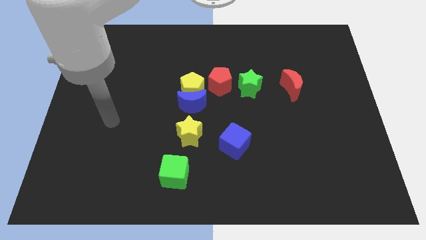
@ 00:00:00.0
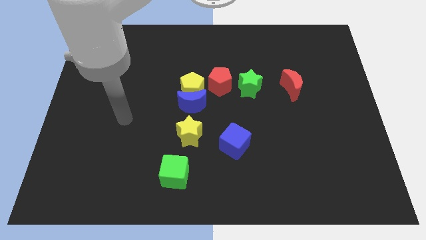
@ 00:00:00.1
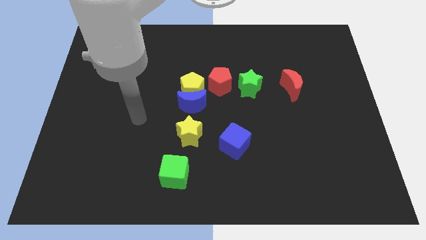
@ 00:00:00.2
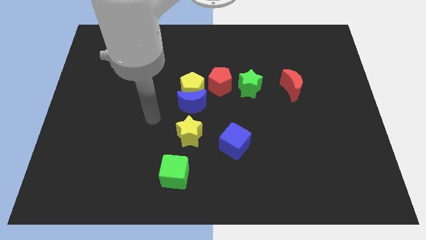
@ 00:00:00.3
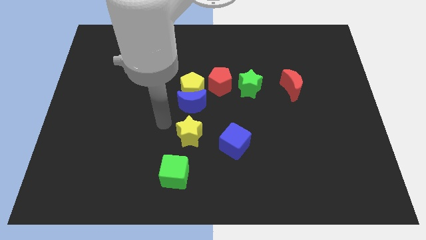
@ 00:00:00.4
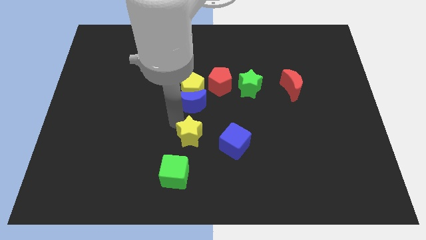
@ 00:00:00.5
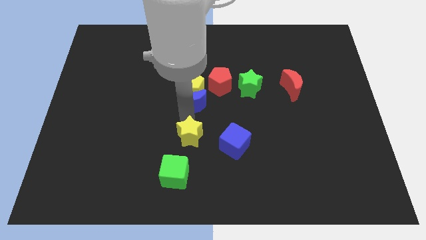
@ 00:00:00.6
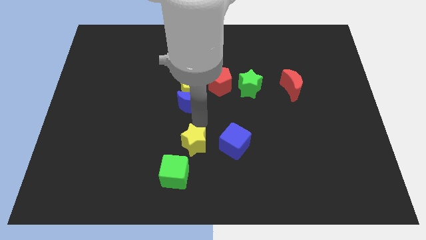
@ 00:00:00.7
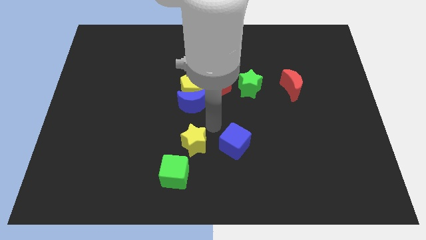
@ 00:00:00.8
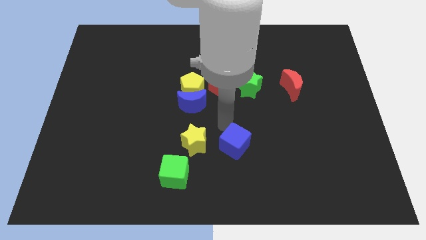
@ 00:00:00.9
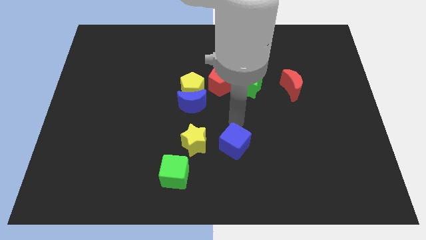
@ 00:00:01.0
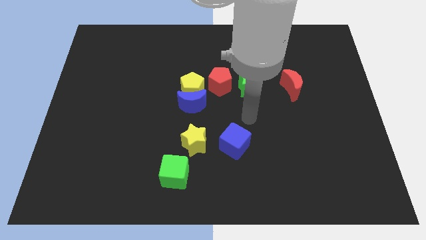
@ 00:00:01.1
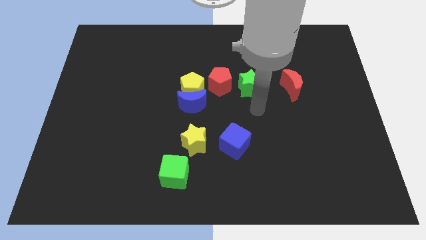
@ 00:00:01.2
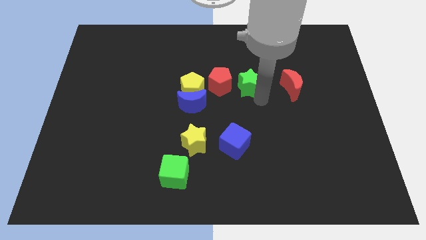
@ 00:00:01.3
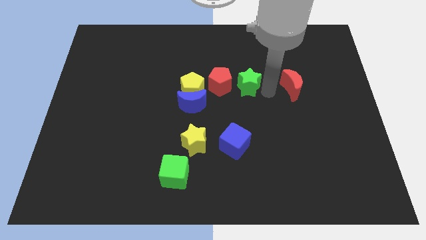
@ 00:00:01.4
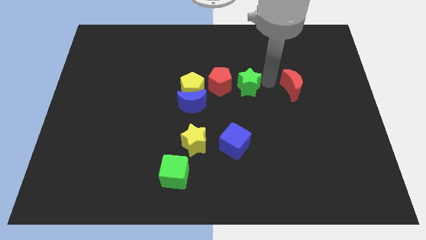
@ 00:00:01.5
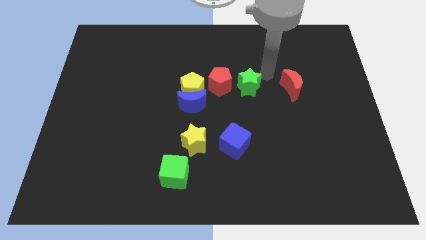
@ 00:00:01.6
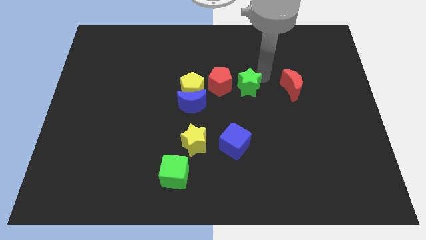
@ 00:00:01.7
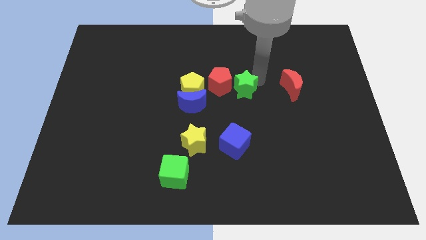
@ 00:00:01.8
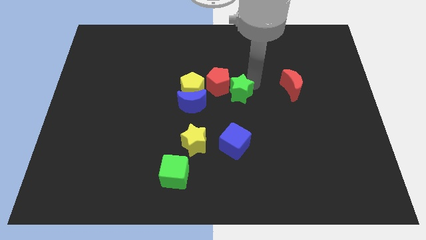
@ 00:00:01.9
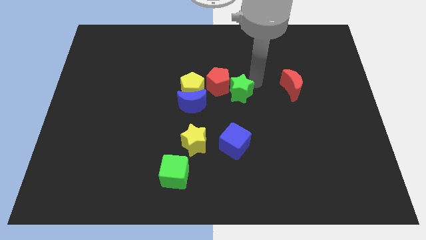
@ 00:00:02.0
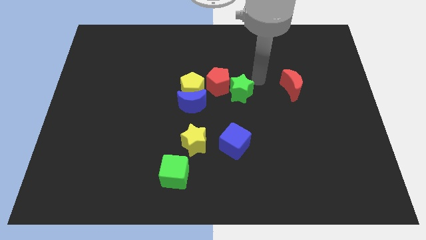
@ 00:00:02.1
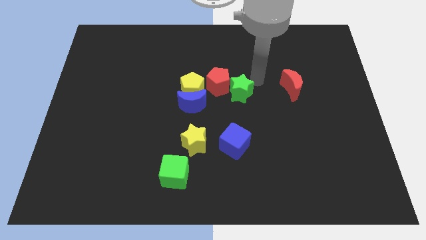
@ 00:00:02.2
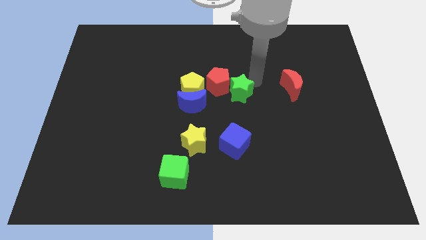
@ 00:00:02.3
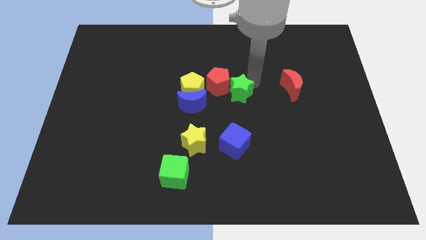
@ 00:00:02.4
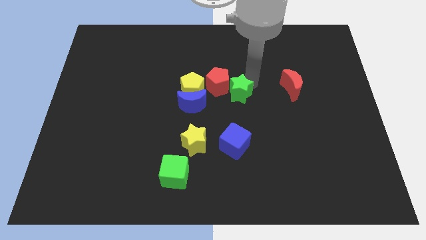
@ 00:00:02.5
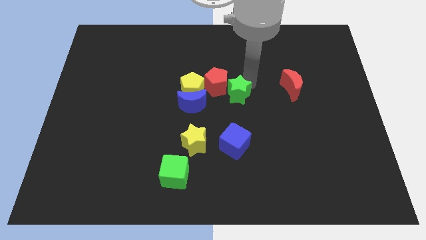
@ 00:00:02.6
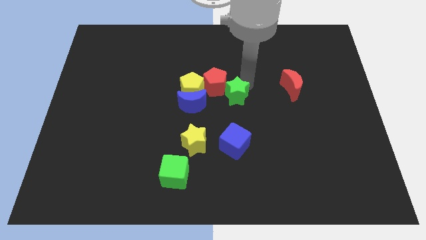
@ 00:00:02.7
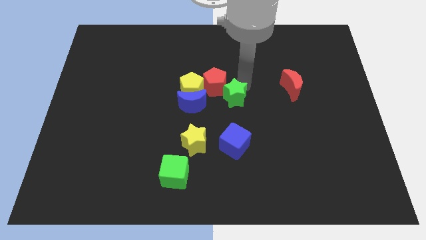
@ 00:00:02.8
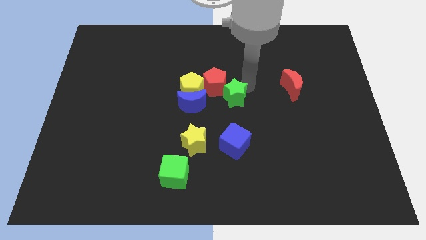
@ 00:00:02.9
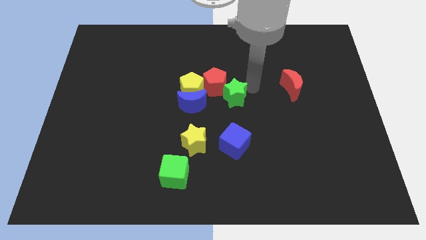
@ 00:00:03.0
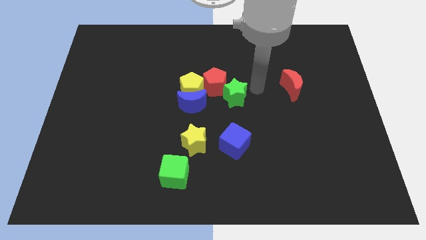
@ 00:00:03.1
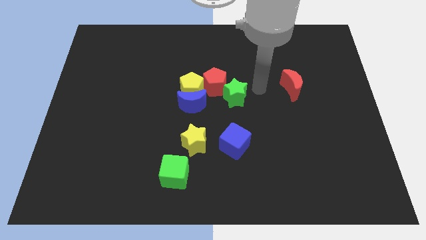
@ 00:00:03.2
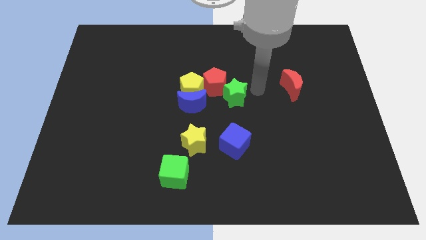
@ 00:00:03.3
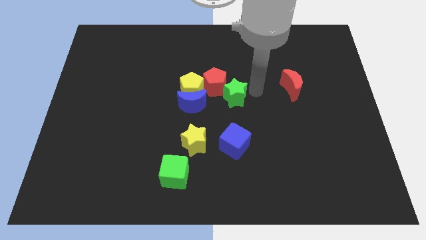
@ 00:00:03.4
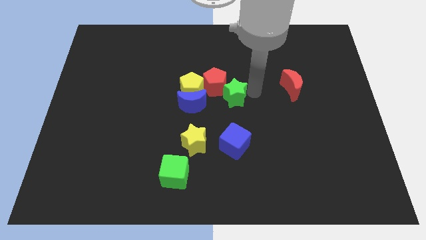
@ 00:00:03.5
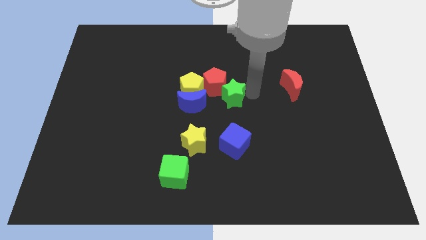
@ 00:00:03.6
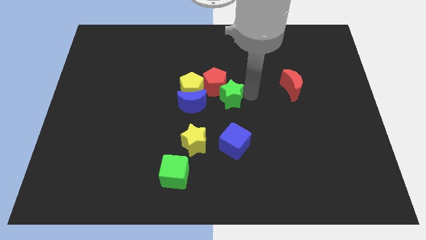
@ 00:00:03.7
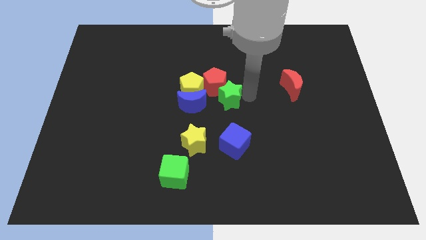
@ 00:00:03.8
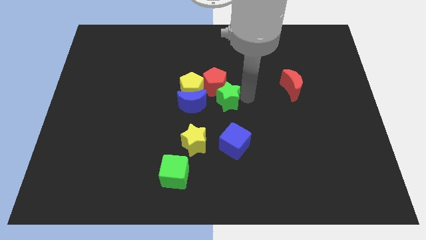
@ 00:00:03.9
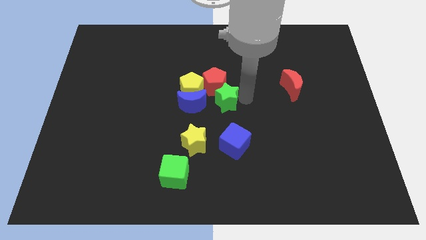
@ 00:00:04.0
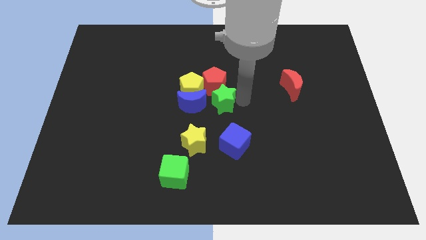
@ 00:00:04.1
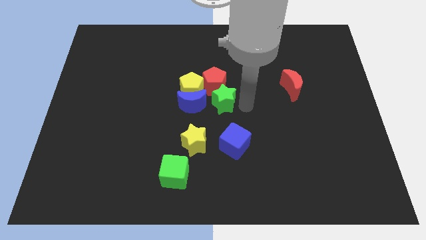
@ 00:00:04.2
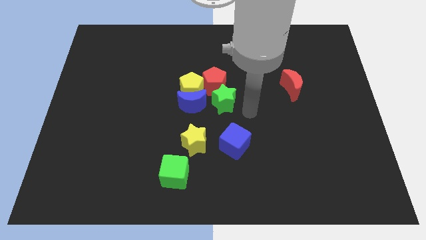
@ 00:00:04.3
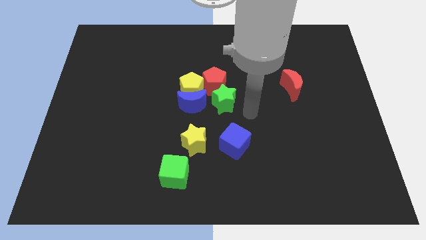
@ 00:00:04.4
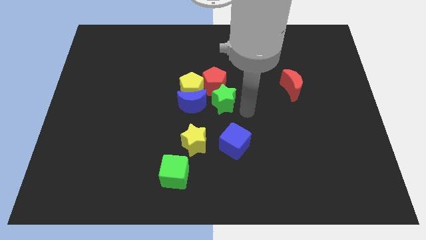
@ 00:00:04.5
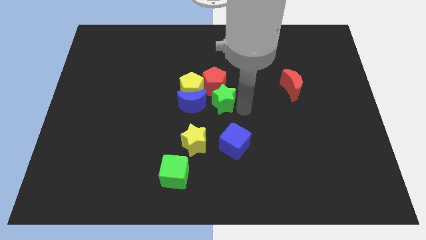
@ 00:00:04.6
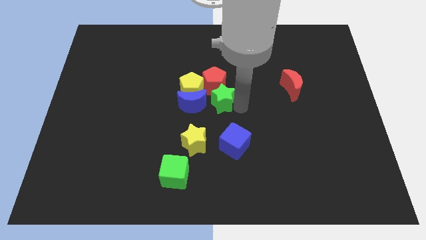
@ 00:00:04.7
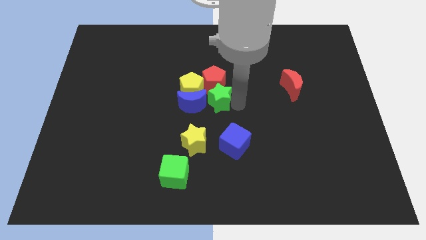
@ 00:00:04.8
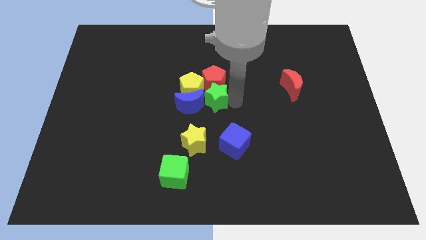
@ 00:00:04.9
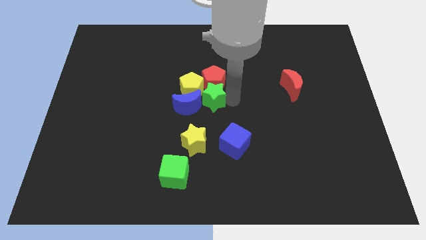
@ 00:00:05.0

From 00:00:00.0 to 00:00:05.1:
push the green star next to the yellow pentagon

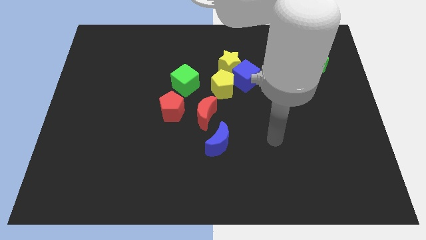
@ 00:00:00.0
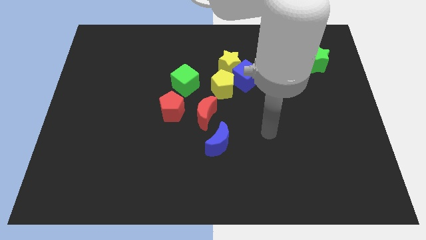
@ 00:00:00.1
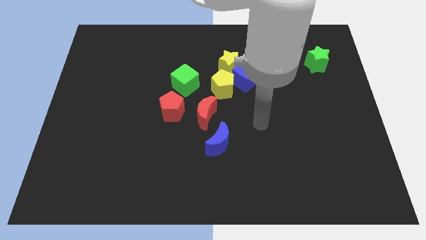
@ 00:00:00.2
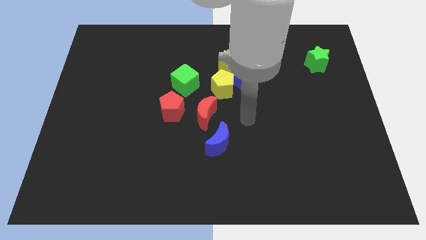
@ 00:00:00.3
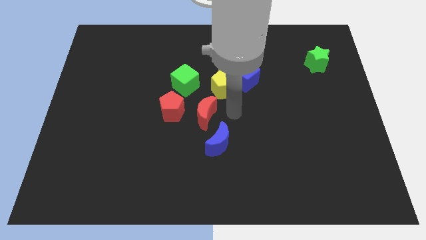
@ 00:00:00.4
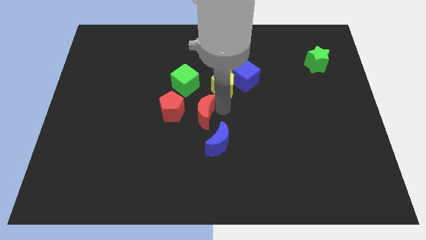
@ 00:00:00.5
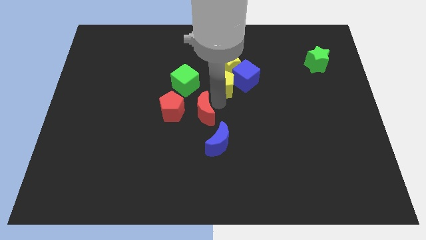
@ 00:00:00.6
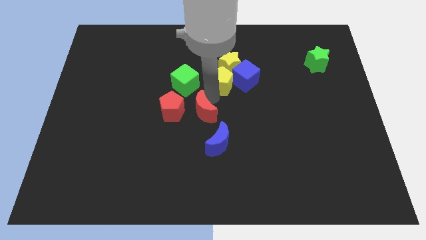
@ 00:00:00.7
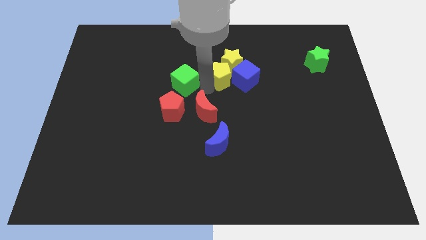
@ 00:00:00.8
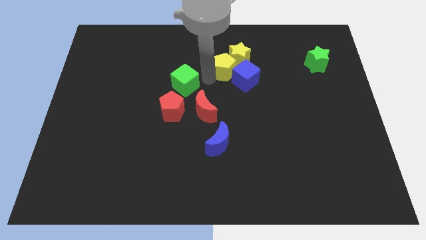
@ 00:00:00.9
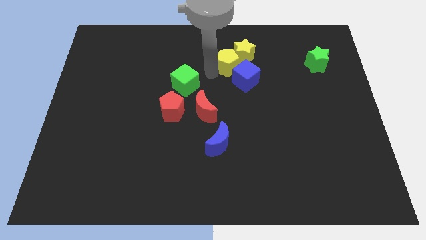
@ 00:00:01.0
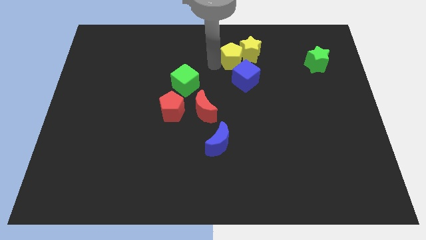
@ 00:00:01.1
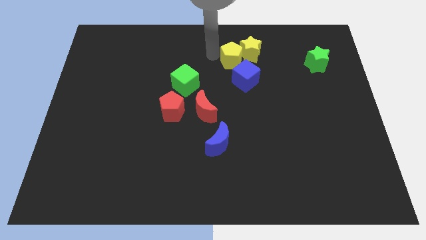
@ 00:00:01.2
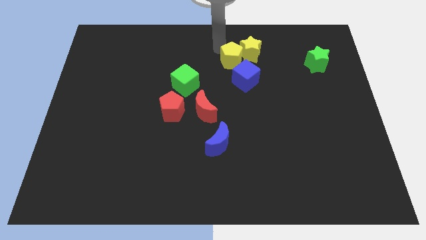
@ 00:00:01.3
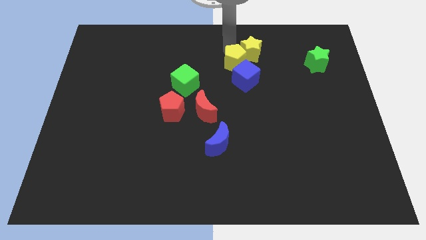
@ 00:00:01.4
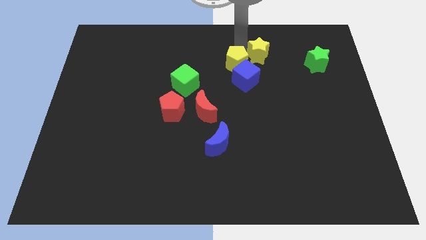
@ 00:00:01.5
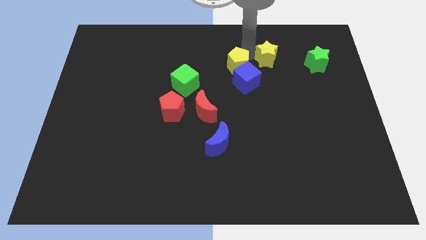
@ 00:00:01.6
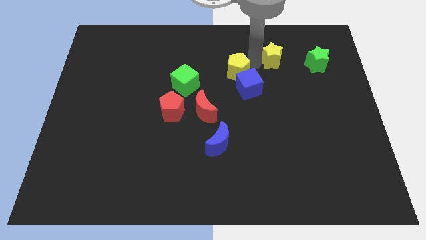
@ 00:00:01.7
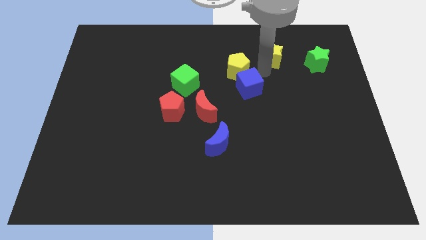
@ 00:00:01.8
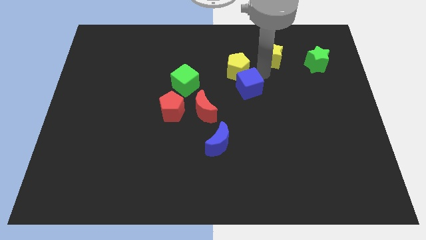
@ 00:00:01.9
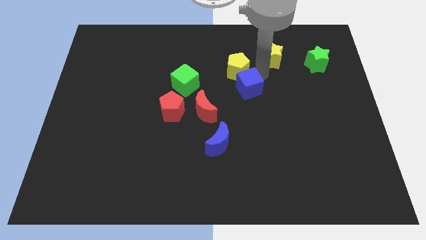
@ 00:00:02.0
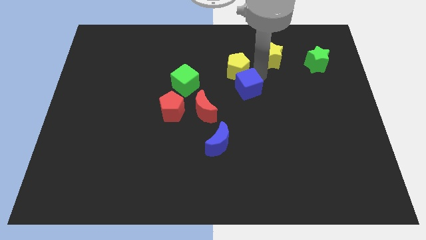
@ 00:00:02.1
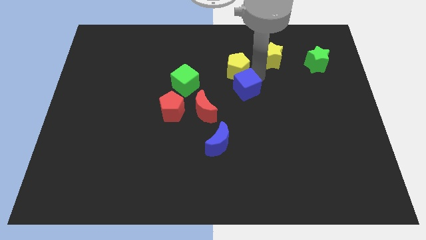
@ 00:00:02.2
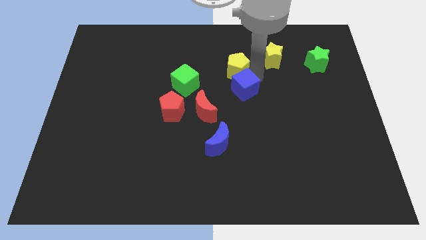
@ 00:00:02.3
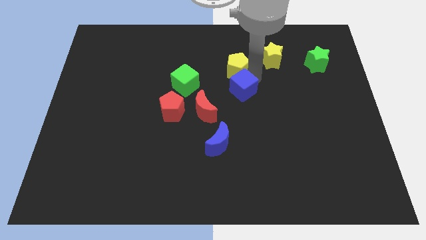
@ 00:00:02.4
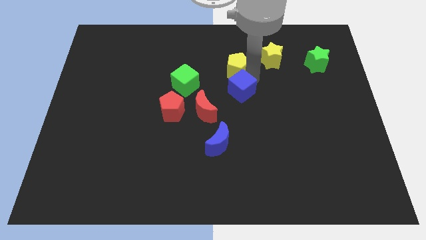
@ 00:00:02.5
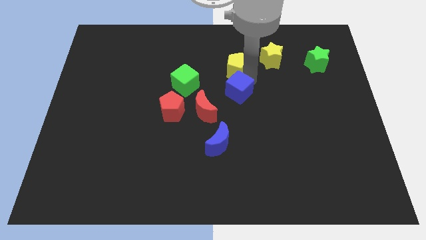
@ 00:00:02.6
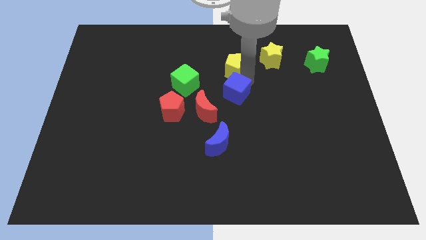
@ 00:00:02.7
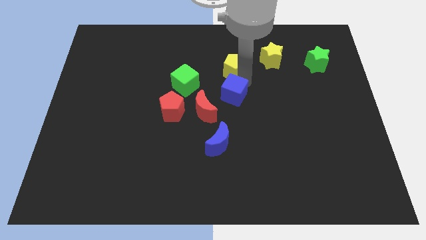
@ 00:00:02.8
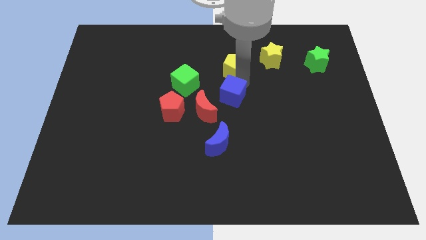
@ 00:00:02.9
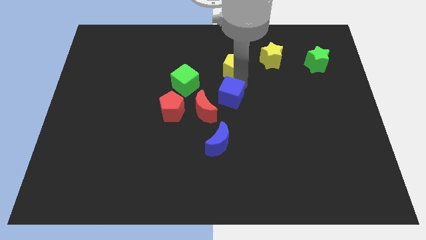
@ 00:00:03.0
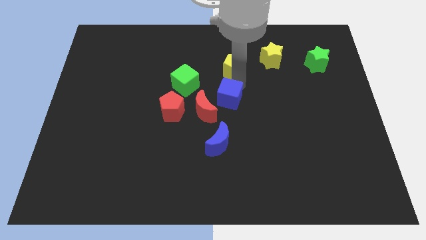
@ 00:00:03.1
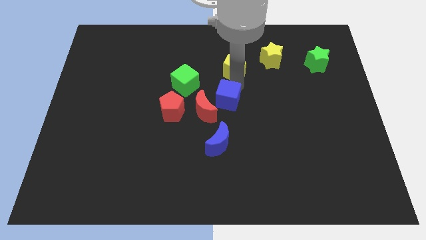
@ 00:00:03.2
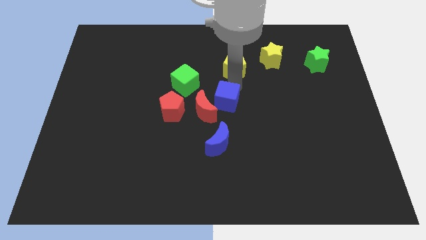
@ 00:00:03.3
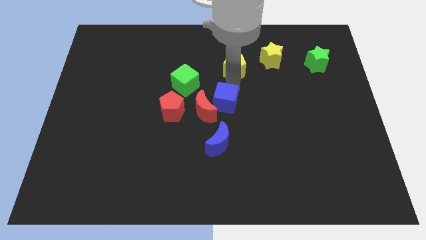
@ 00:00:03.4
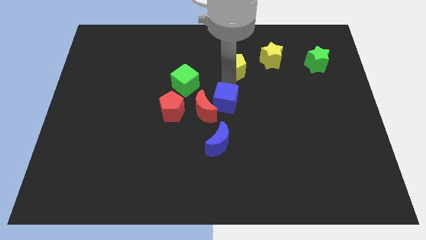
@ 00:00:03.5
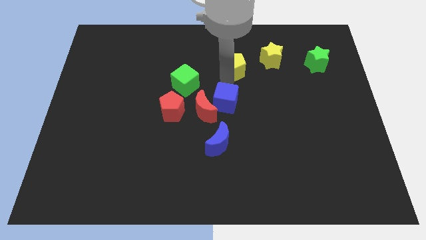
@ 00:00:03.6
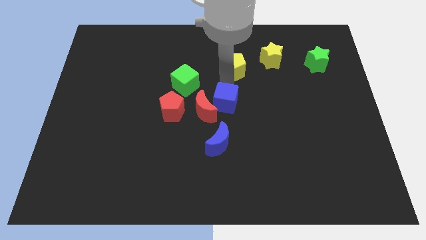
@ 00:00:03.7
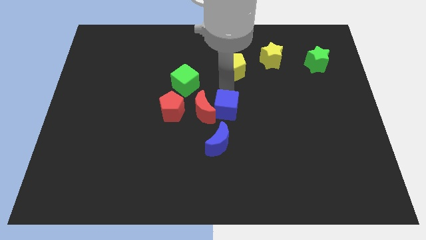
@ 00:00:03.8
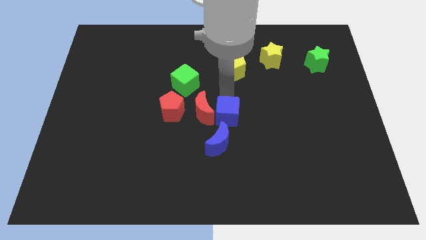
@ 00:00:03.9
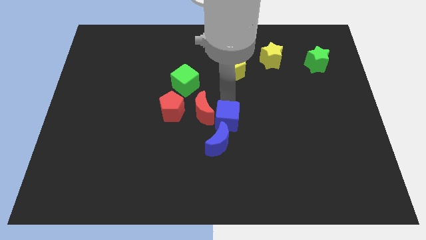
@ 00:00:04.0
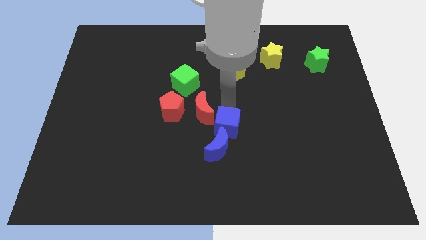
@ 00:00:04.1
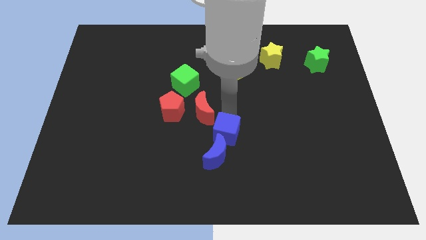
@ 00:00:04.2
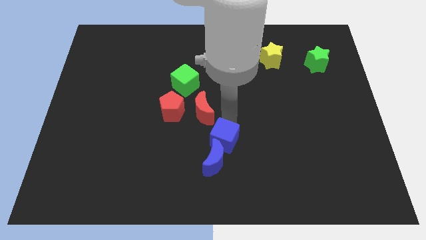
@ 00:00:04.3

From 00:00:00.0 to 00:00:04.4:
put the blue cube to the blue moon
